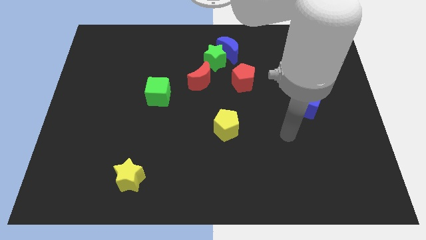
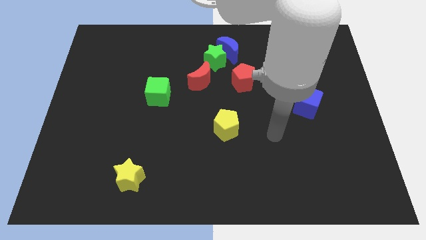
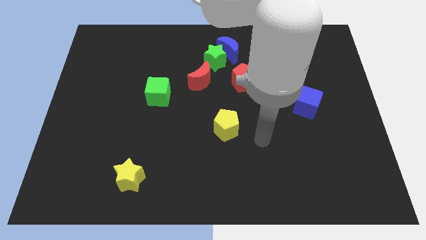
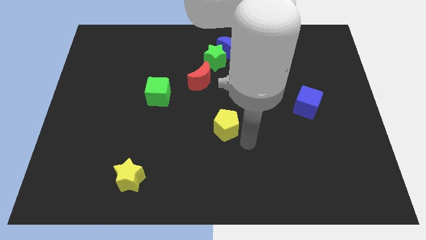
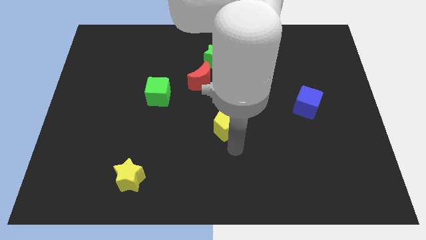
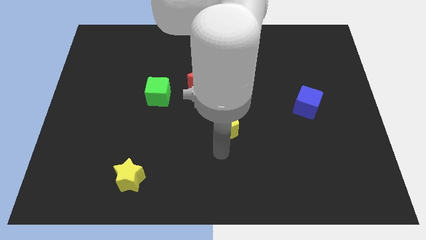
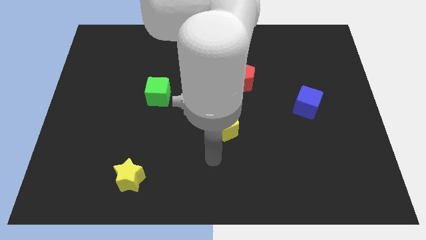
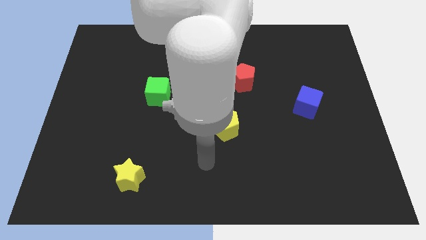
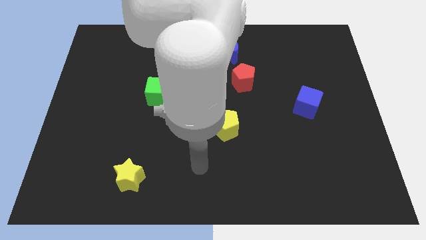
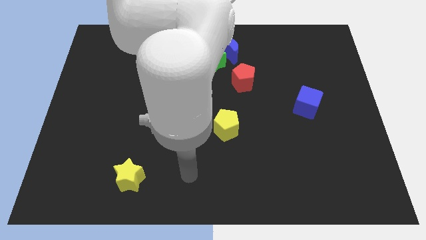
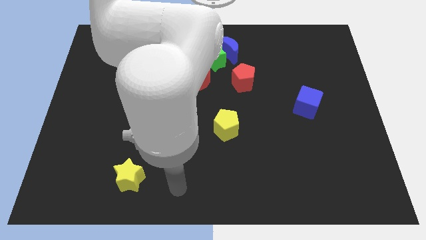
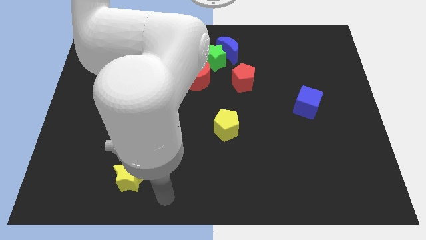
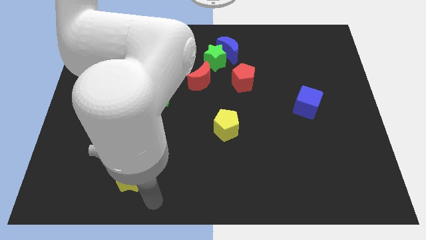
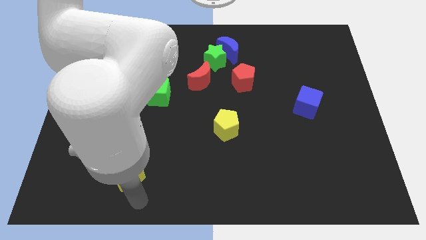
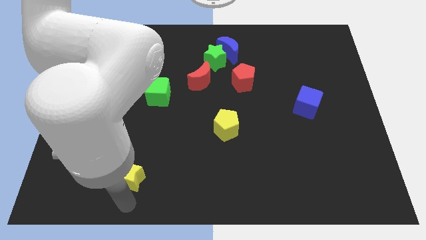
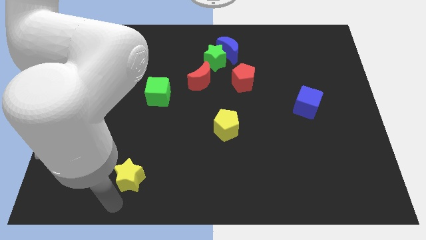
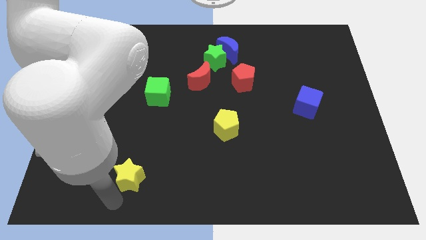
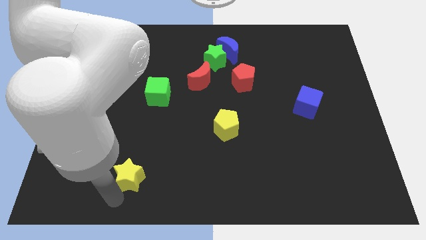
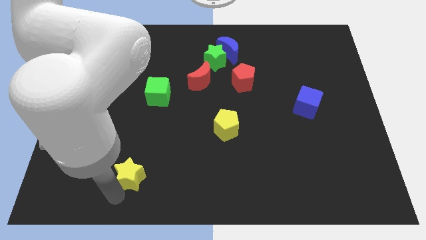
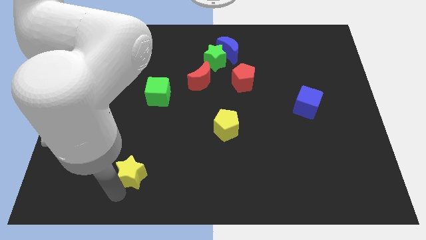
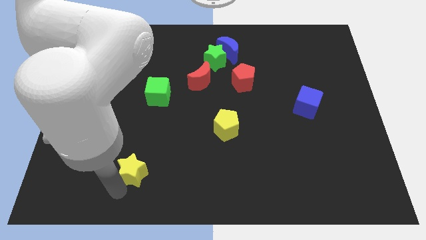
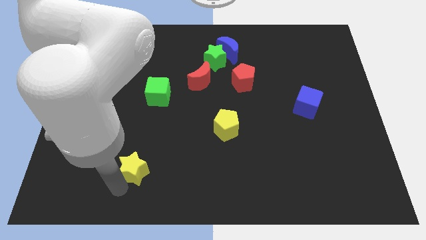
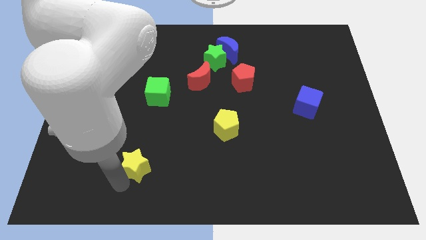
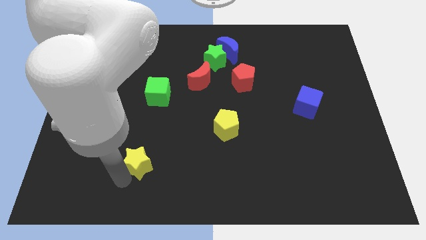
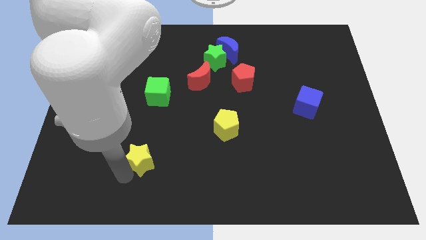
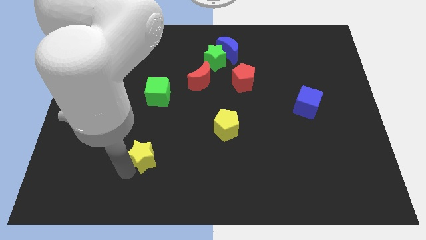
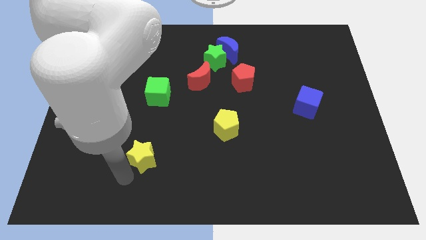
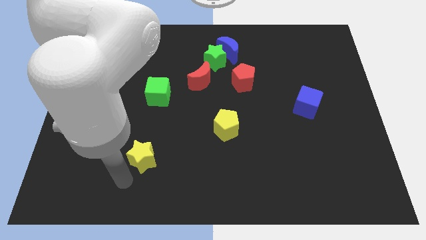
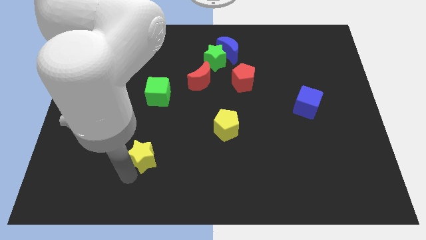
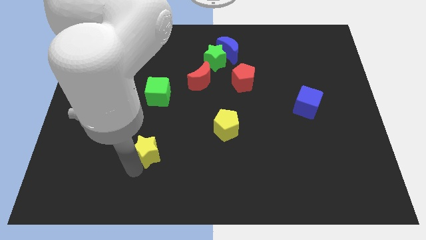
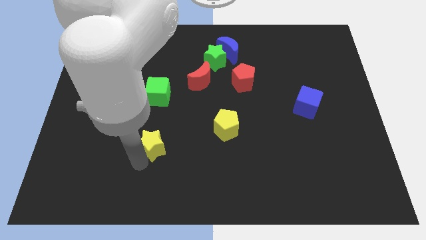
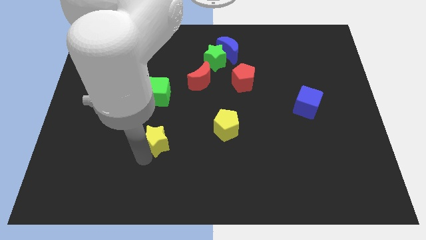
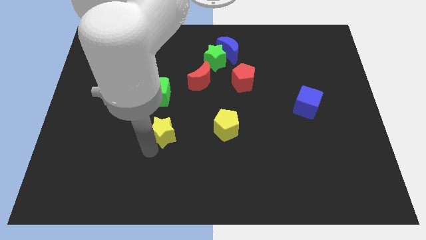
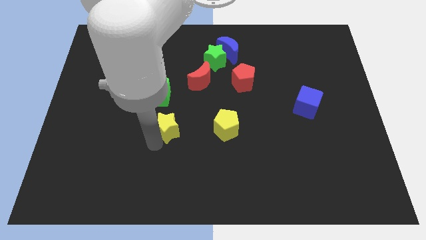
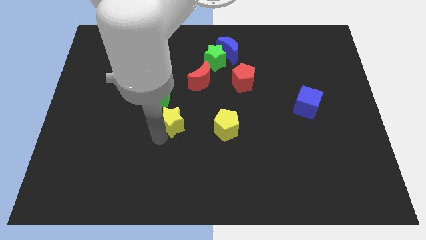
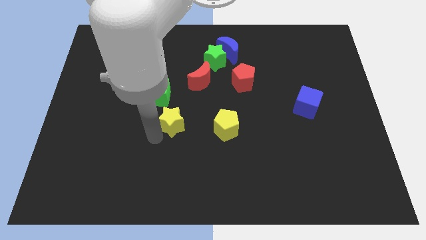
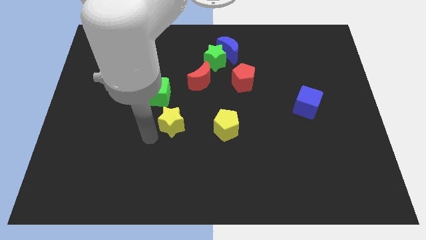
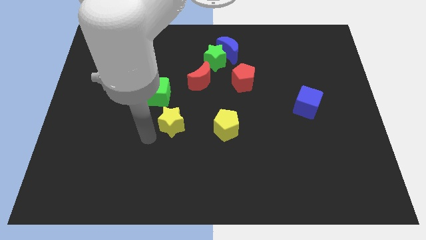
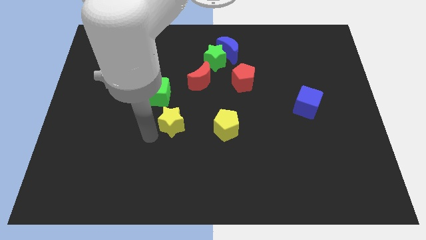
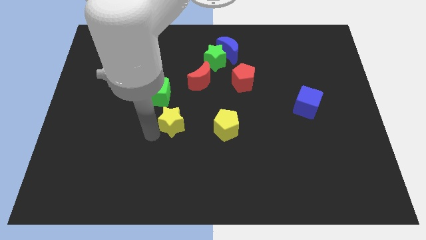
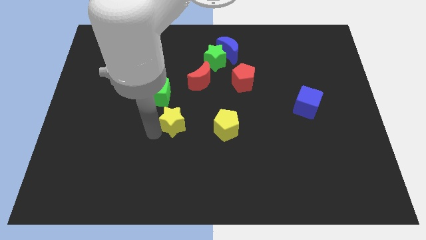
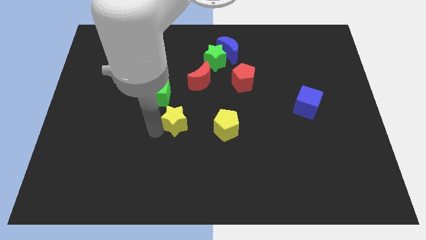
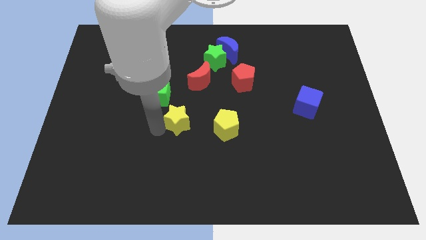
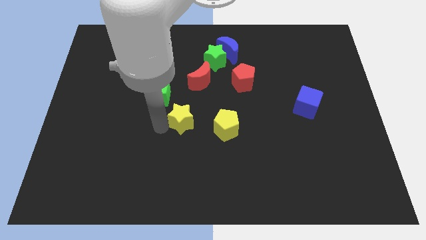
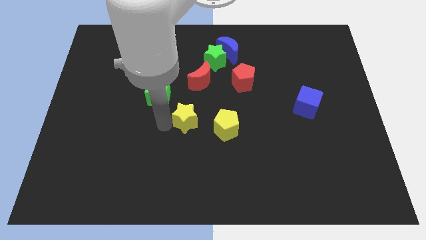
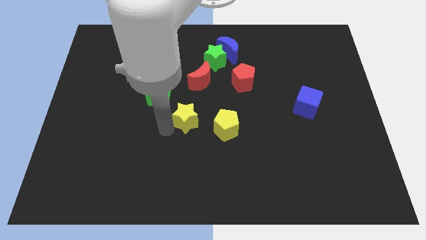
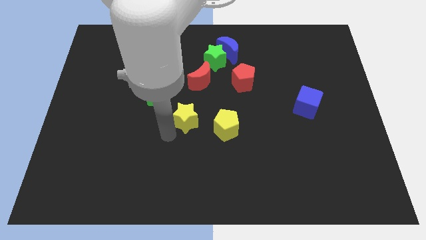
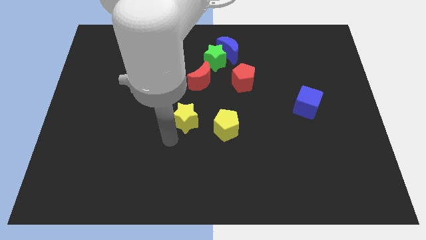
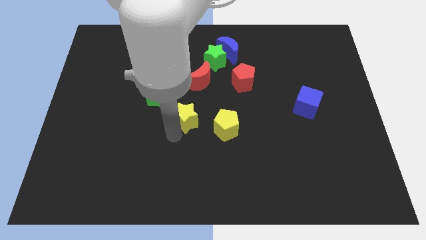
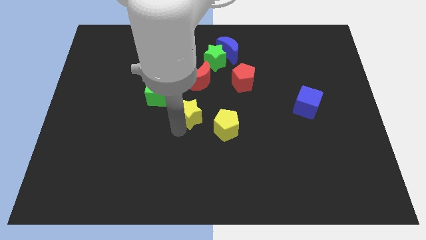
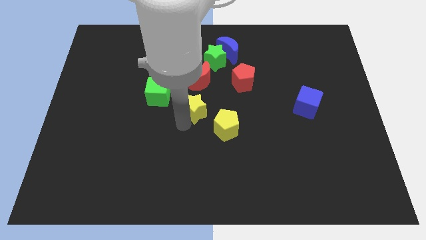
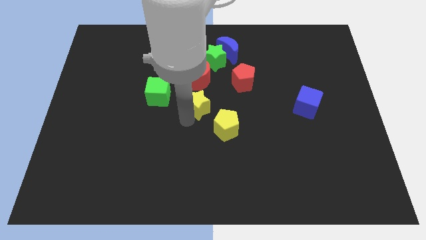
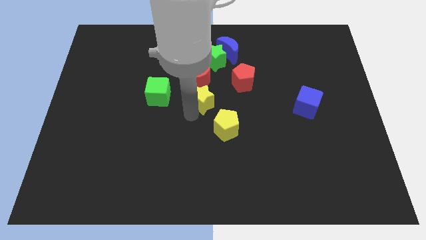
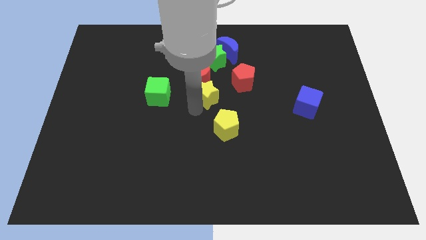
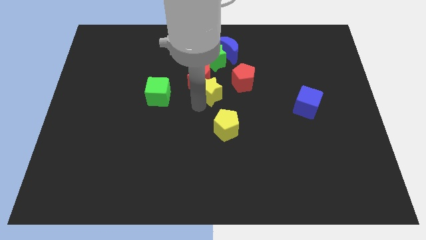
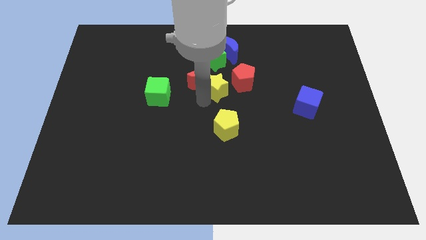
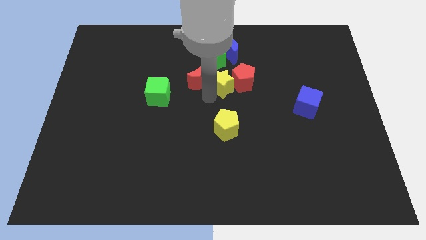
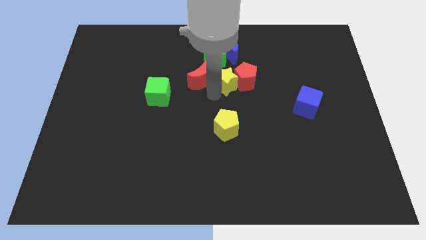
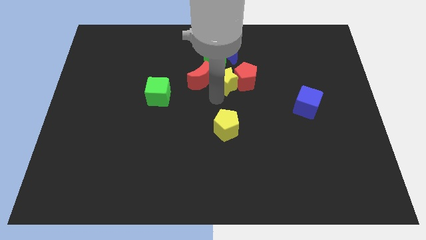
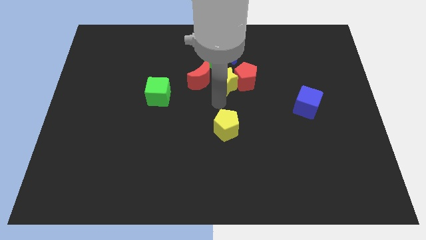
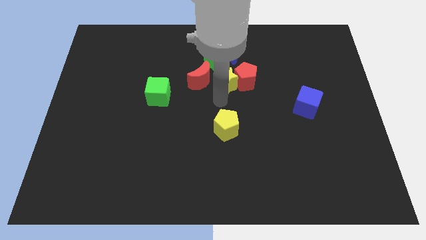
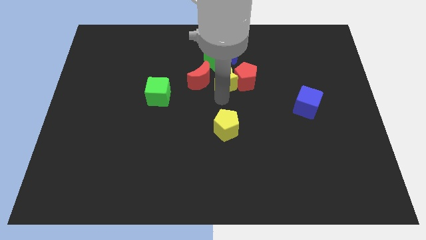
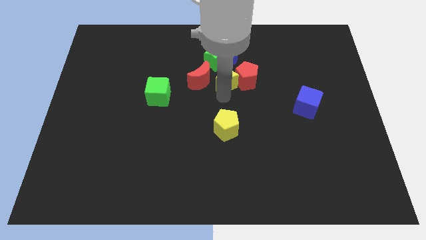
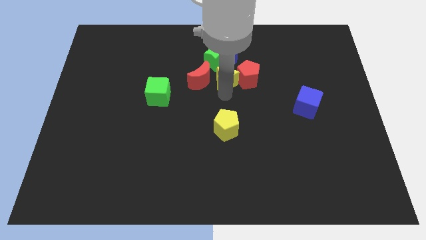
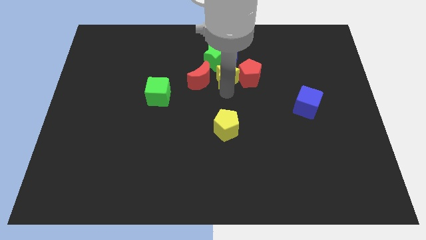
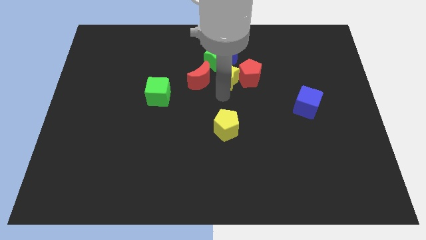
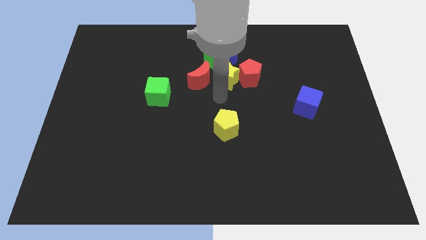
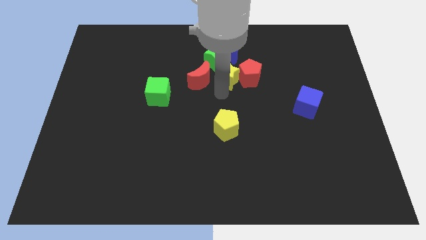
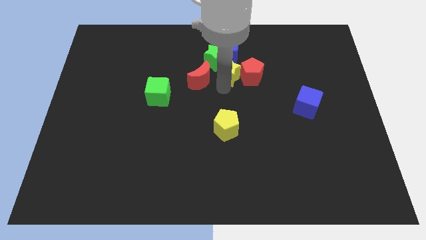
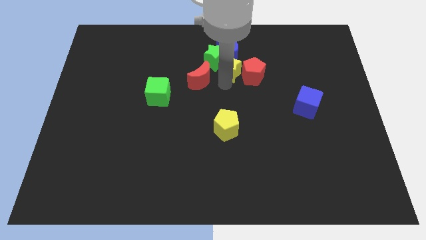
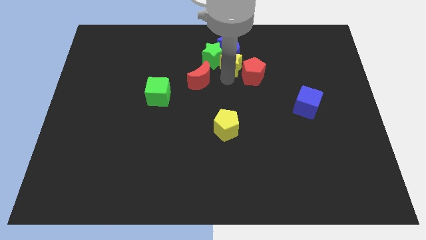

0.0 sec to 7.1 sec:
move the yellow star next to the blue moon
